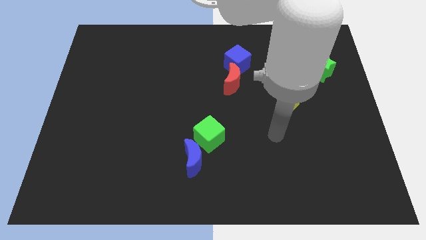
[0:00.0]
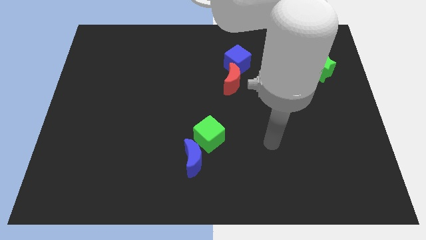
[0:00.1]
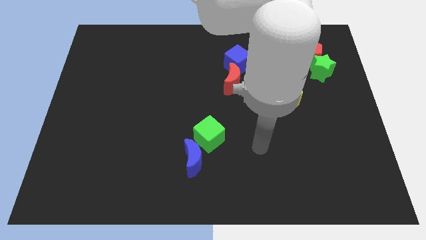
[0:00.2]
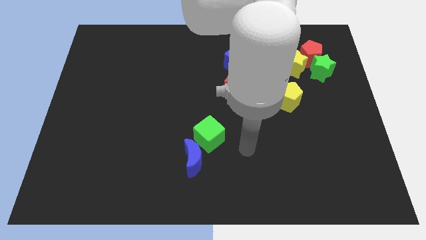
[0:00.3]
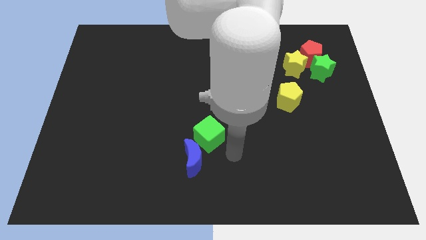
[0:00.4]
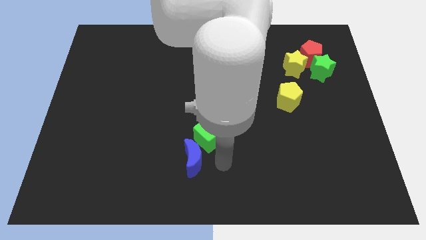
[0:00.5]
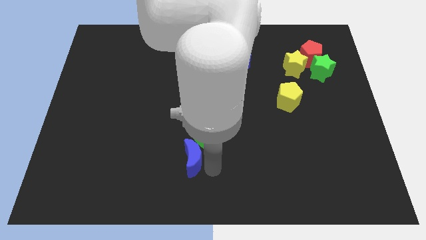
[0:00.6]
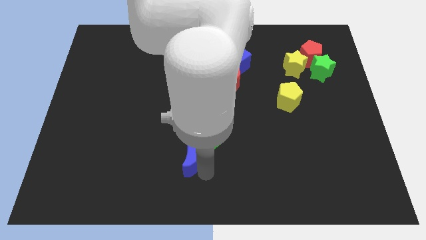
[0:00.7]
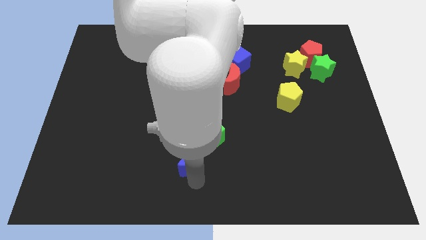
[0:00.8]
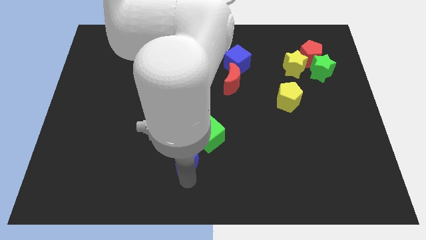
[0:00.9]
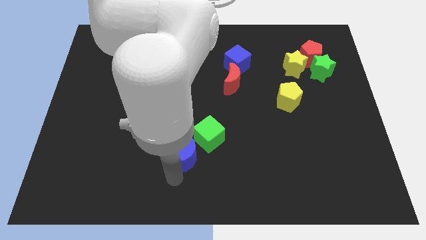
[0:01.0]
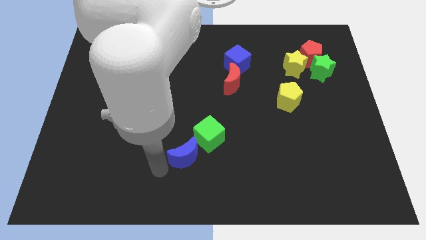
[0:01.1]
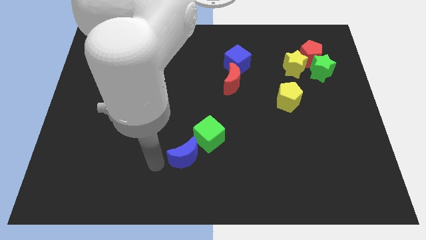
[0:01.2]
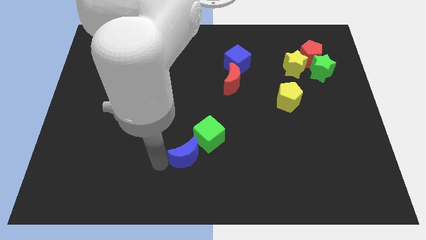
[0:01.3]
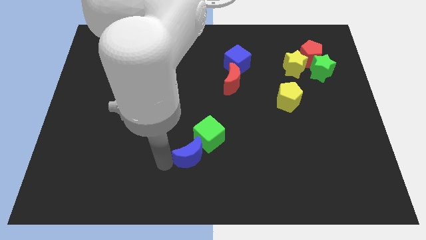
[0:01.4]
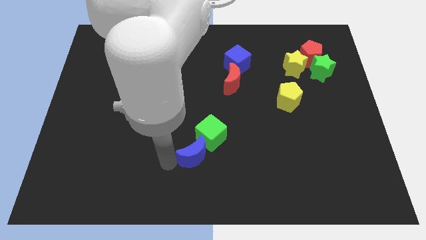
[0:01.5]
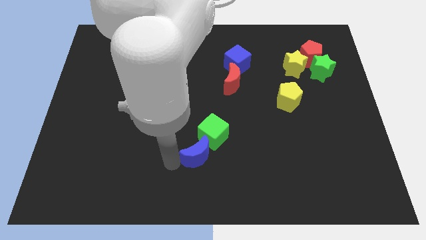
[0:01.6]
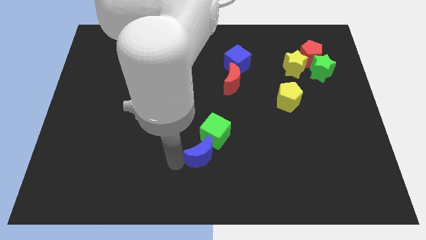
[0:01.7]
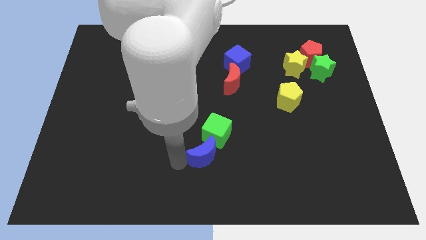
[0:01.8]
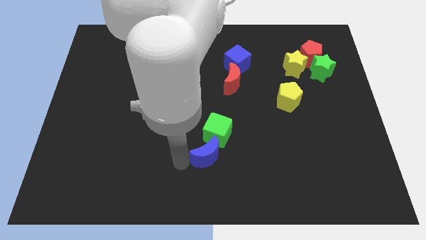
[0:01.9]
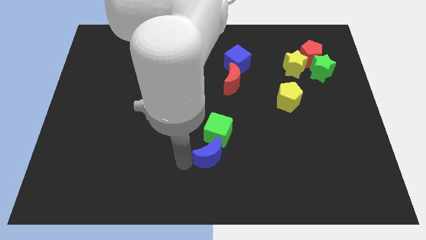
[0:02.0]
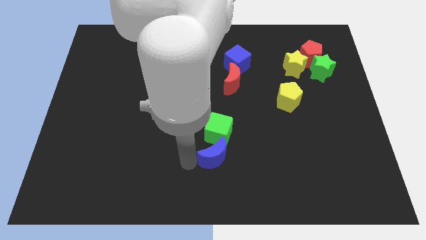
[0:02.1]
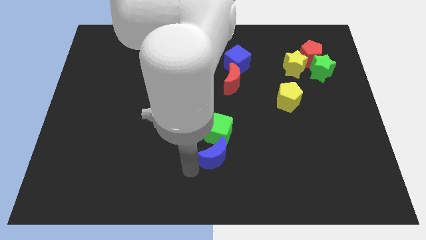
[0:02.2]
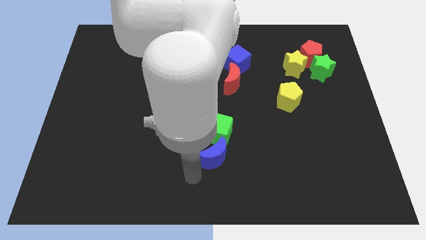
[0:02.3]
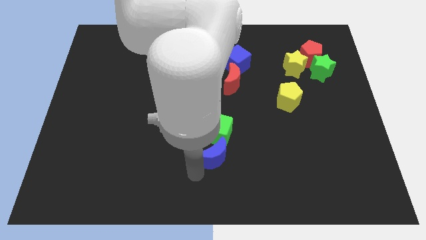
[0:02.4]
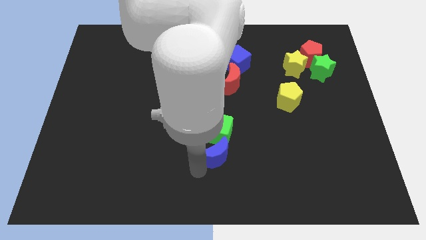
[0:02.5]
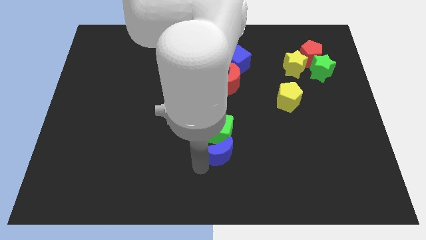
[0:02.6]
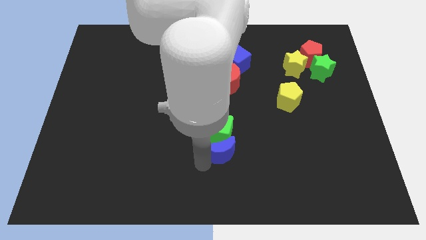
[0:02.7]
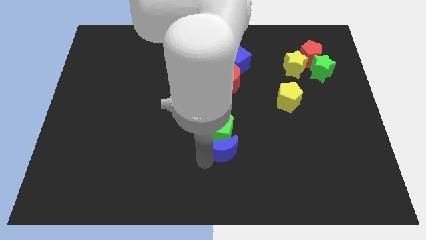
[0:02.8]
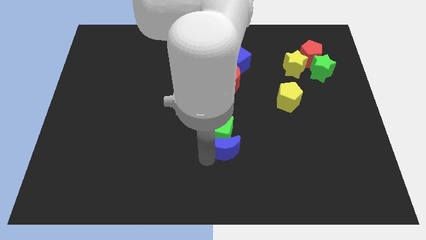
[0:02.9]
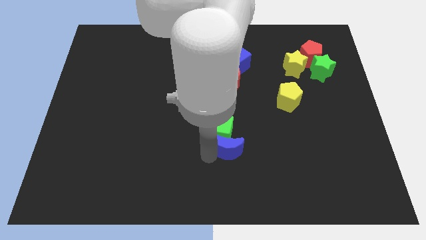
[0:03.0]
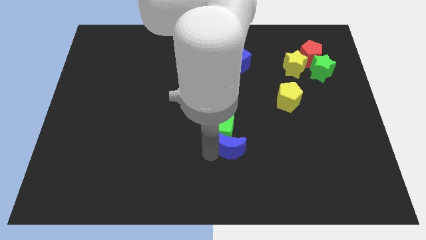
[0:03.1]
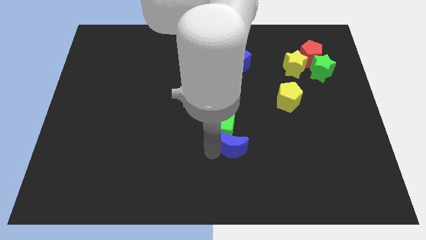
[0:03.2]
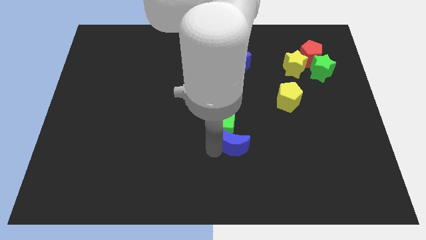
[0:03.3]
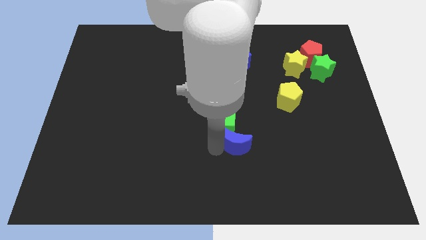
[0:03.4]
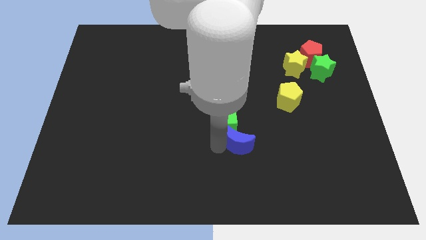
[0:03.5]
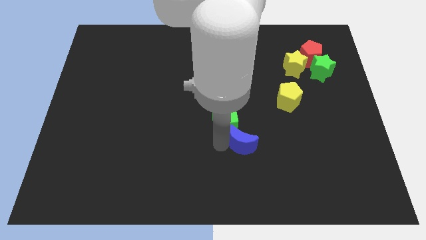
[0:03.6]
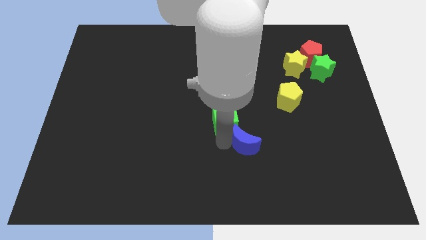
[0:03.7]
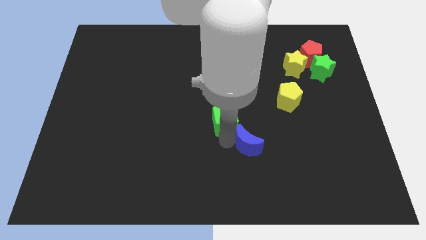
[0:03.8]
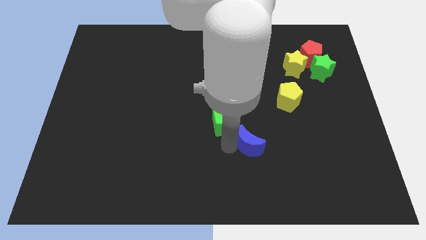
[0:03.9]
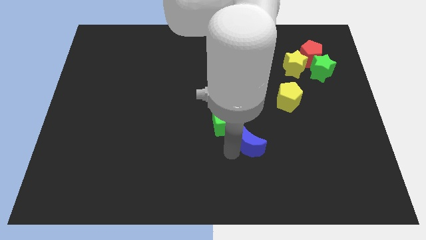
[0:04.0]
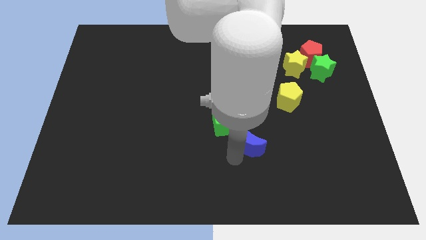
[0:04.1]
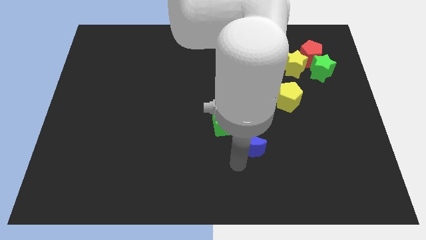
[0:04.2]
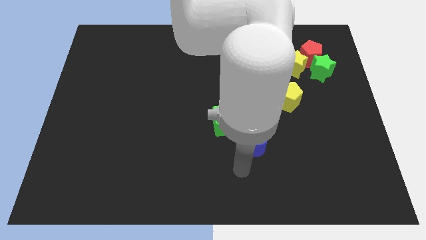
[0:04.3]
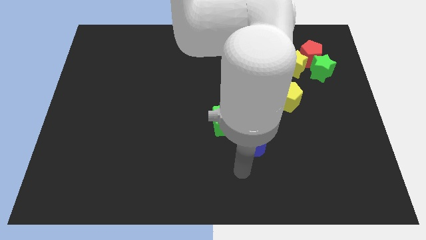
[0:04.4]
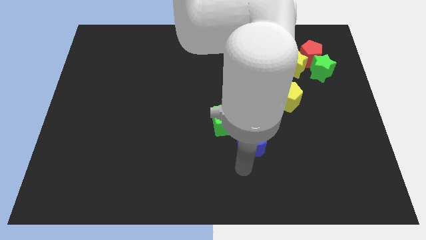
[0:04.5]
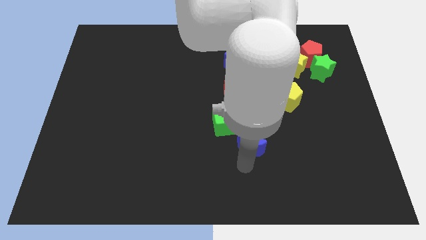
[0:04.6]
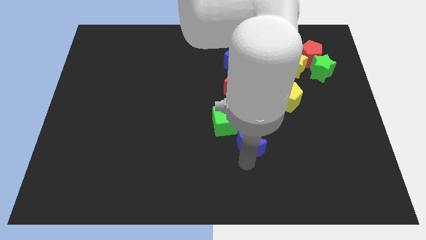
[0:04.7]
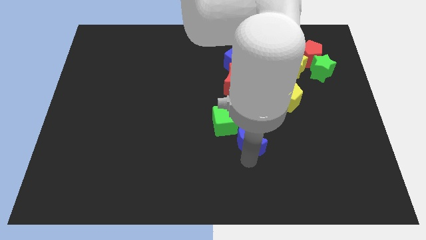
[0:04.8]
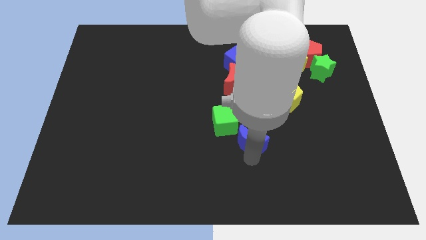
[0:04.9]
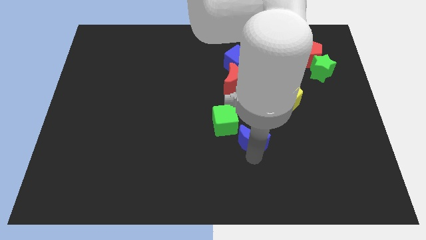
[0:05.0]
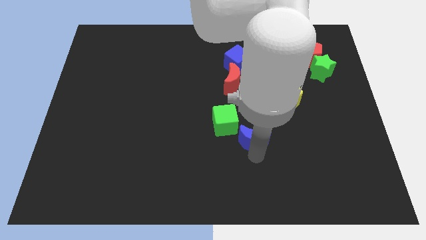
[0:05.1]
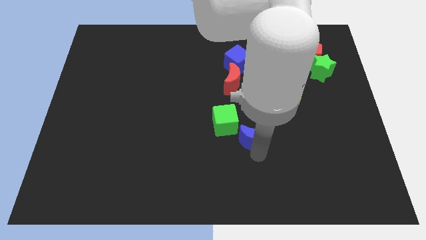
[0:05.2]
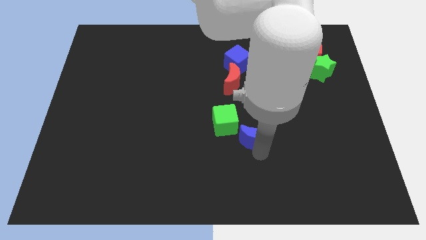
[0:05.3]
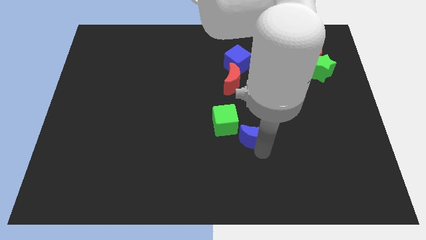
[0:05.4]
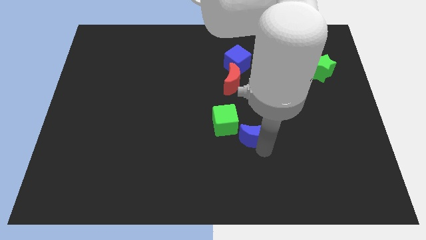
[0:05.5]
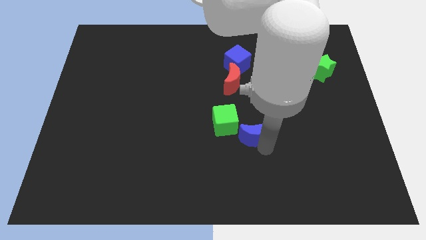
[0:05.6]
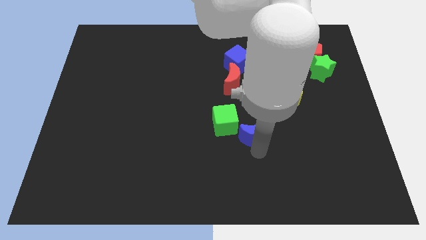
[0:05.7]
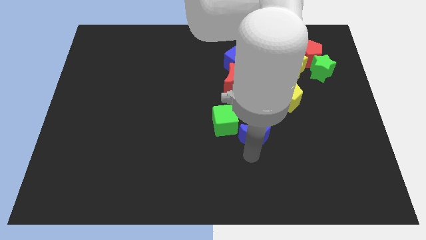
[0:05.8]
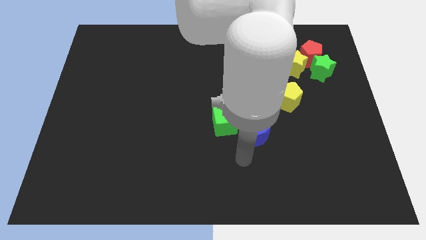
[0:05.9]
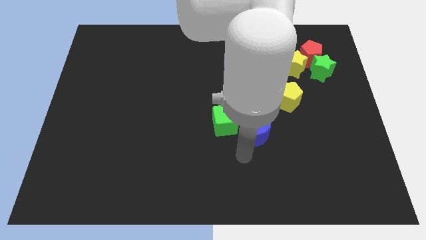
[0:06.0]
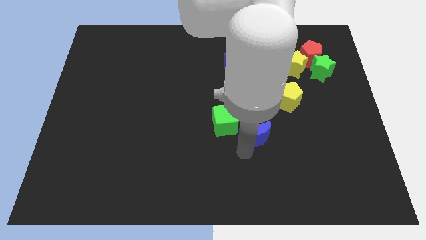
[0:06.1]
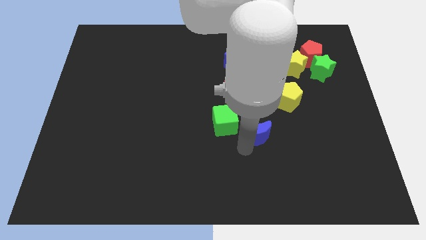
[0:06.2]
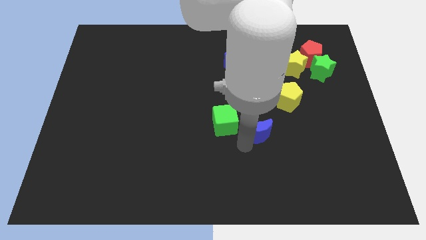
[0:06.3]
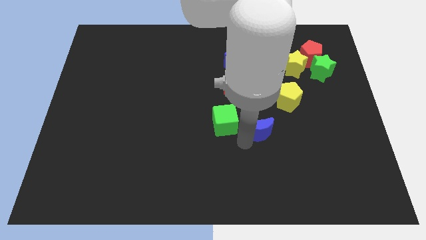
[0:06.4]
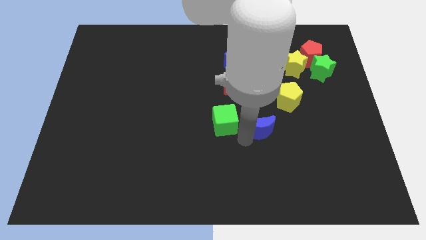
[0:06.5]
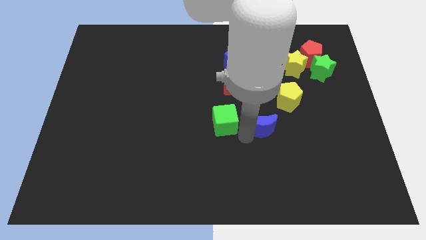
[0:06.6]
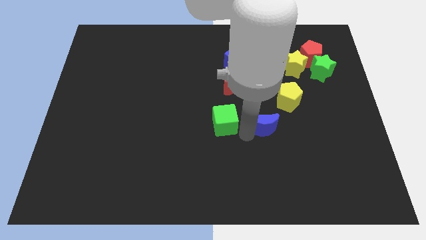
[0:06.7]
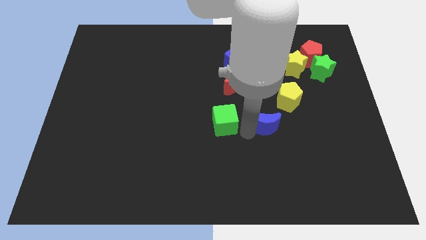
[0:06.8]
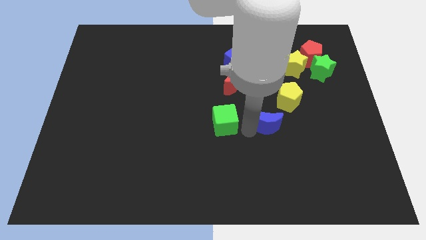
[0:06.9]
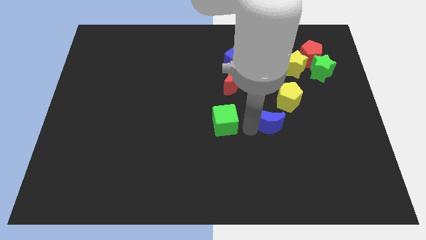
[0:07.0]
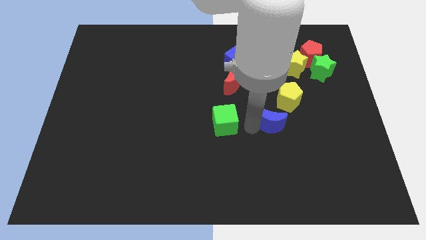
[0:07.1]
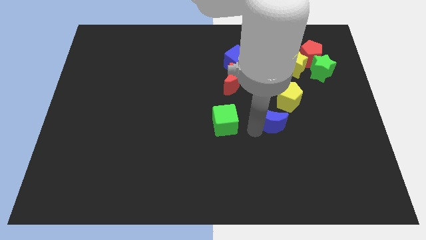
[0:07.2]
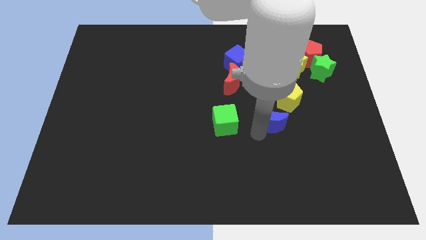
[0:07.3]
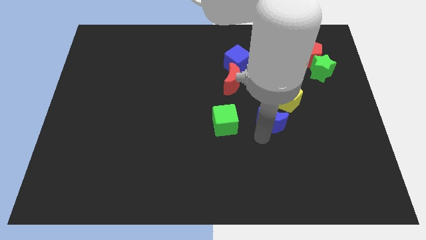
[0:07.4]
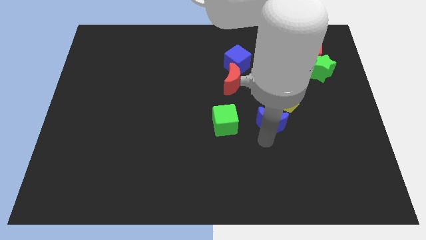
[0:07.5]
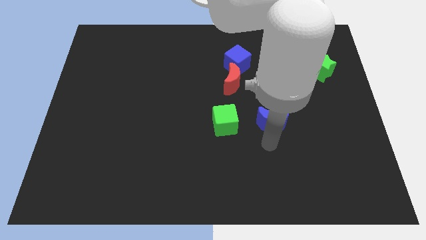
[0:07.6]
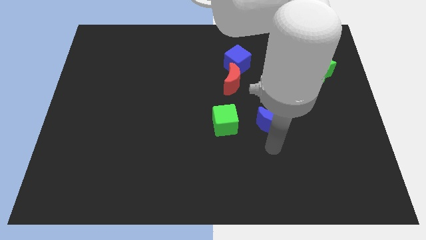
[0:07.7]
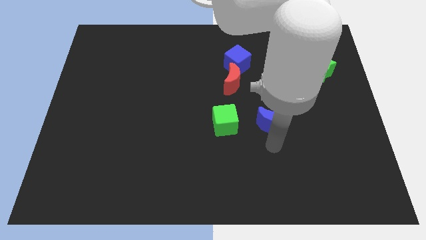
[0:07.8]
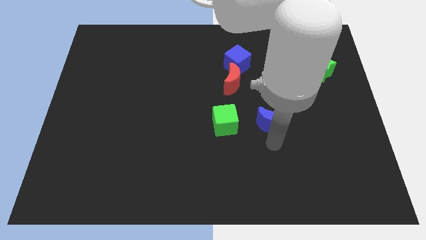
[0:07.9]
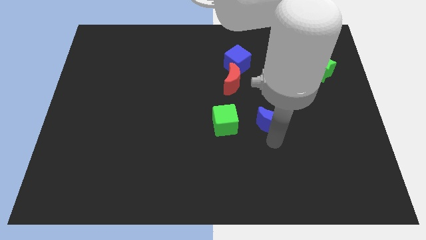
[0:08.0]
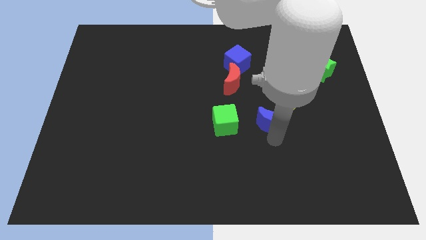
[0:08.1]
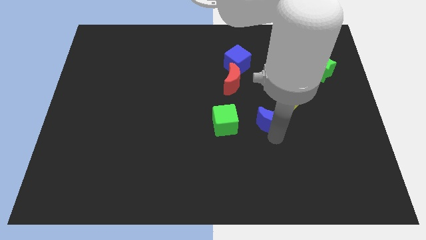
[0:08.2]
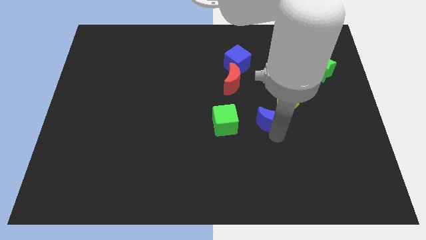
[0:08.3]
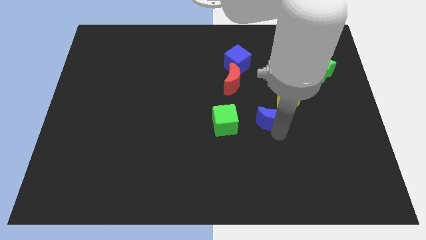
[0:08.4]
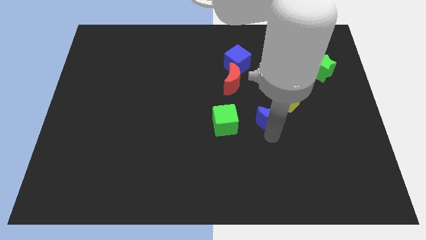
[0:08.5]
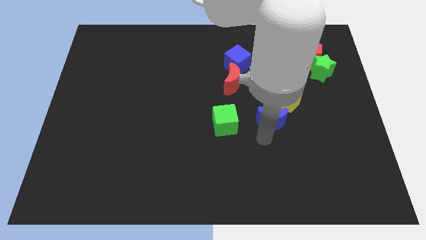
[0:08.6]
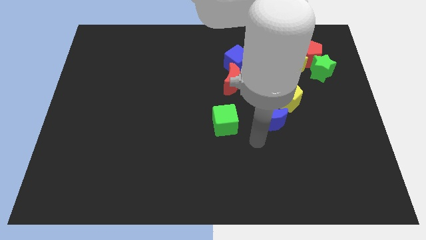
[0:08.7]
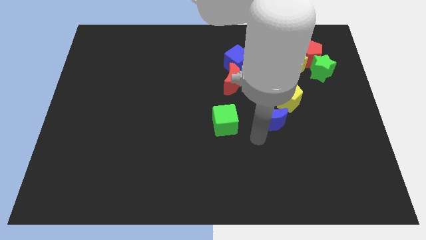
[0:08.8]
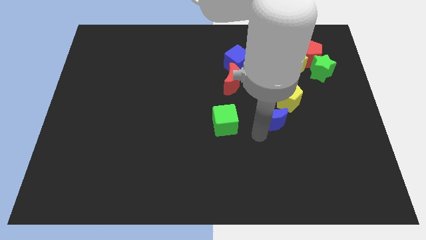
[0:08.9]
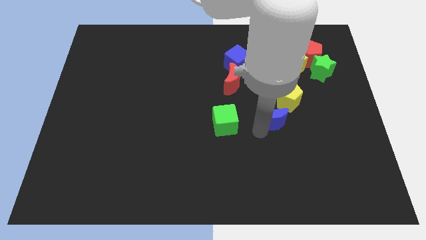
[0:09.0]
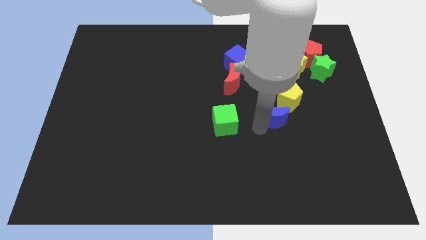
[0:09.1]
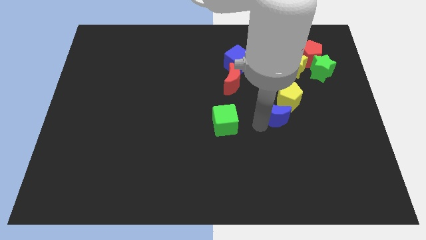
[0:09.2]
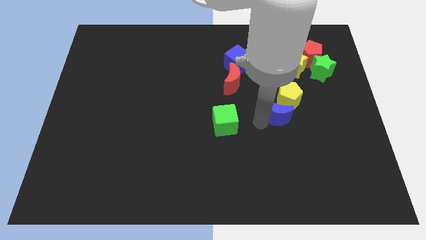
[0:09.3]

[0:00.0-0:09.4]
slide the blue moon next to the yellow pentagon
